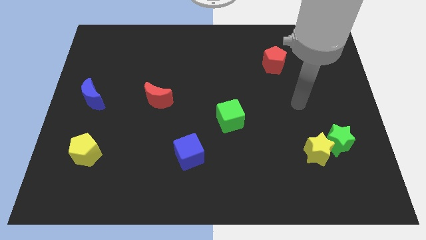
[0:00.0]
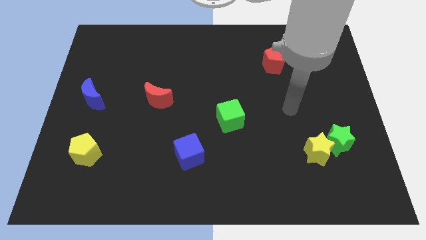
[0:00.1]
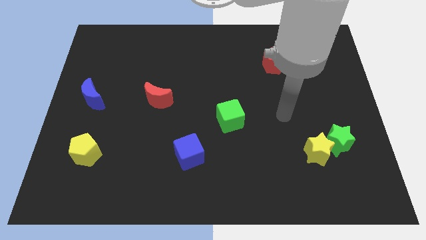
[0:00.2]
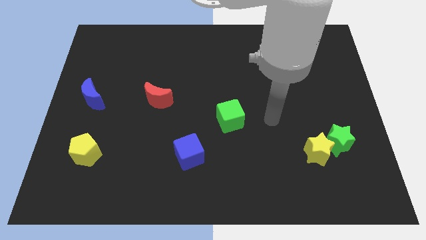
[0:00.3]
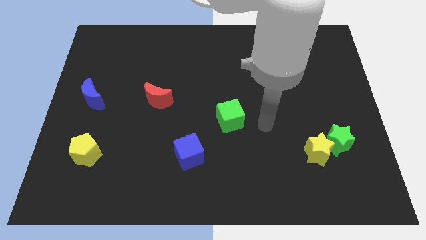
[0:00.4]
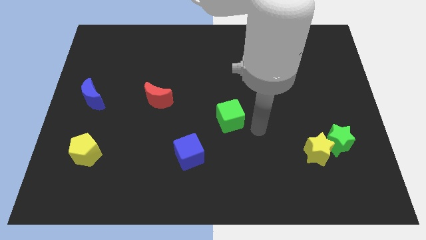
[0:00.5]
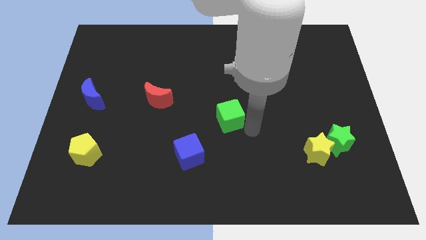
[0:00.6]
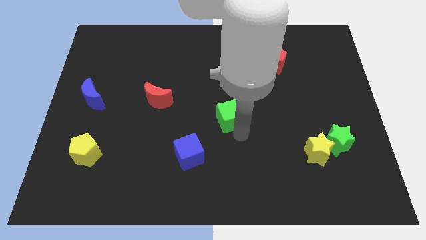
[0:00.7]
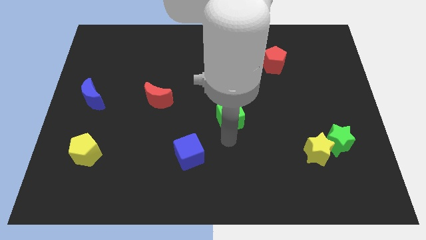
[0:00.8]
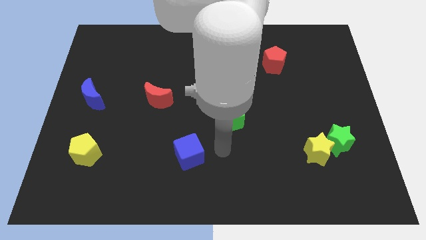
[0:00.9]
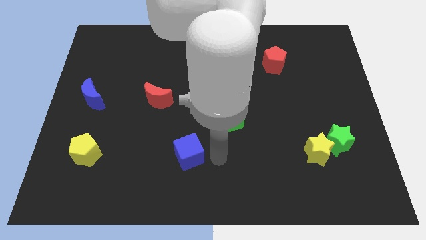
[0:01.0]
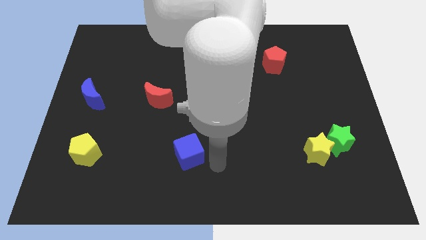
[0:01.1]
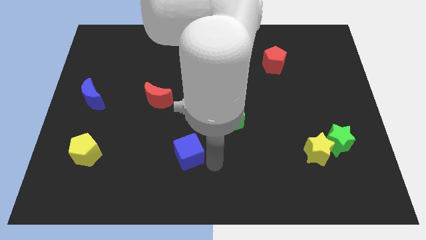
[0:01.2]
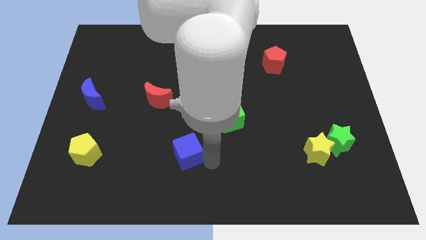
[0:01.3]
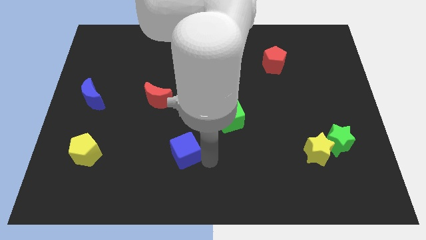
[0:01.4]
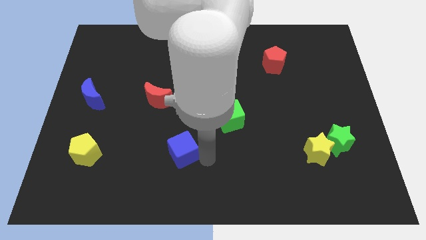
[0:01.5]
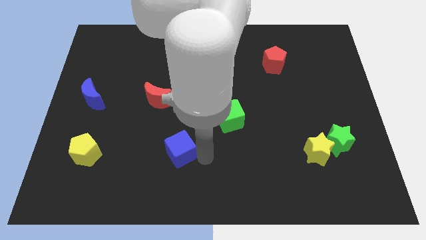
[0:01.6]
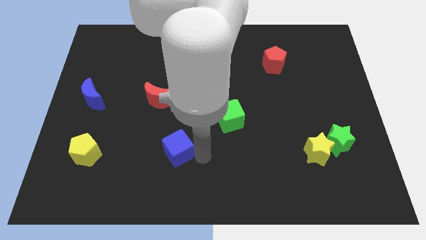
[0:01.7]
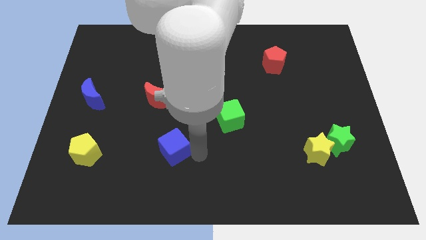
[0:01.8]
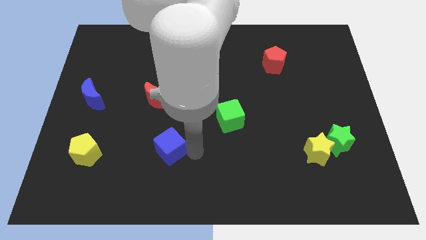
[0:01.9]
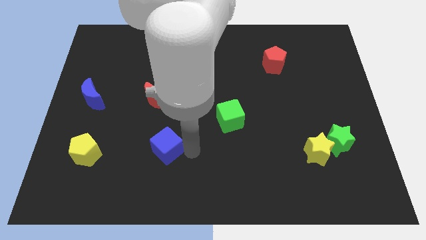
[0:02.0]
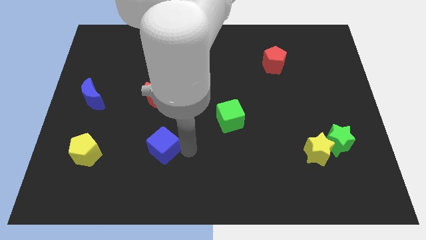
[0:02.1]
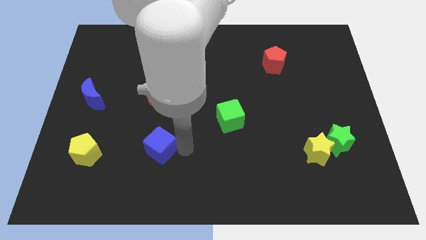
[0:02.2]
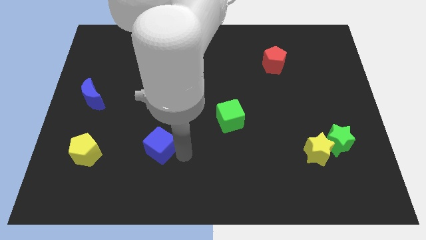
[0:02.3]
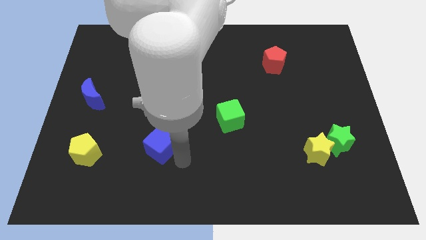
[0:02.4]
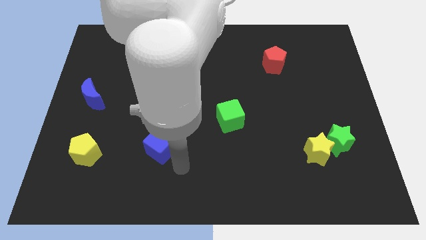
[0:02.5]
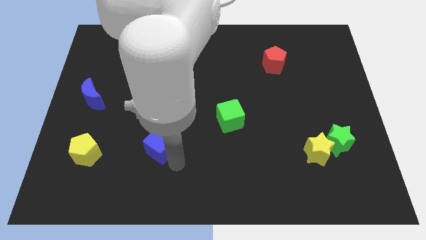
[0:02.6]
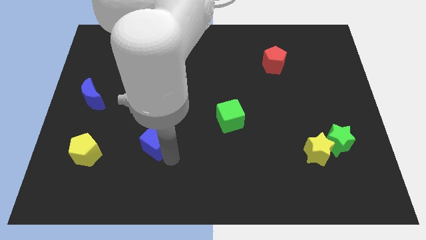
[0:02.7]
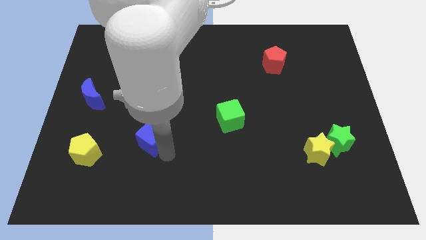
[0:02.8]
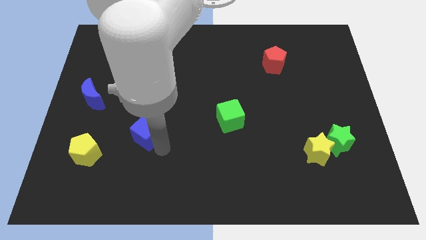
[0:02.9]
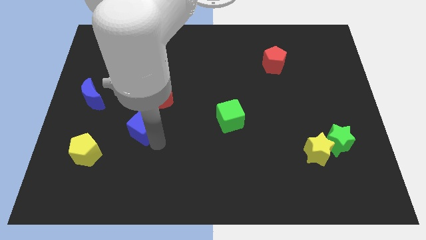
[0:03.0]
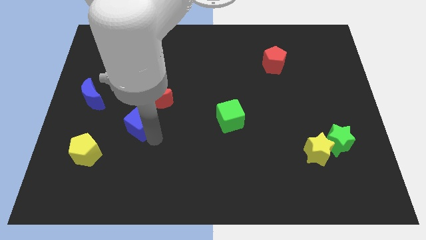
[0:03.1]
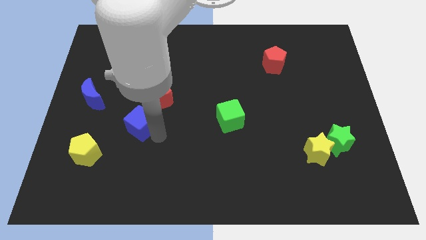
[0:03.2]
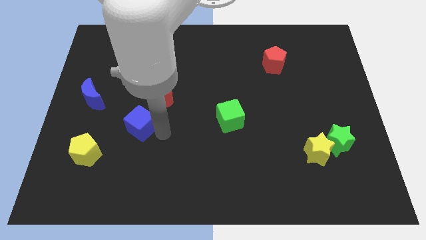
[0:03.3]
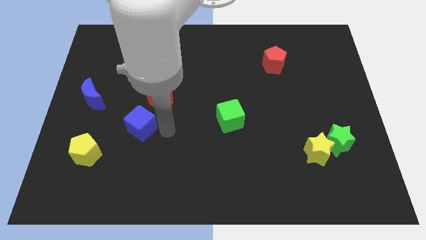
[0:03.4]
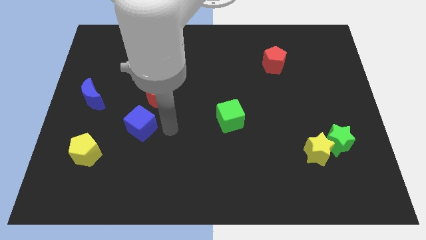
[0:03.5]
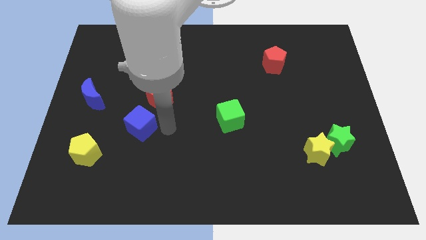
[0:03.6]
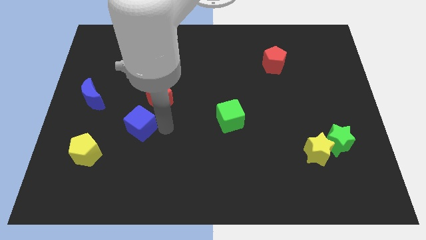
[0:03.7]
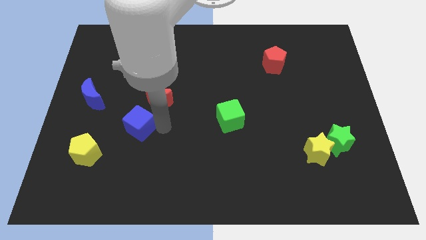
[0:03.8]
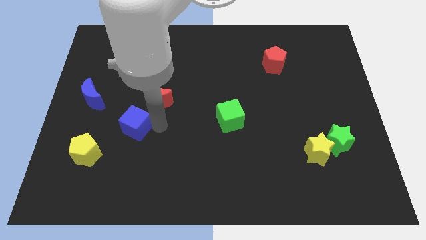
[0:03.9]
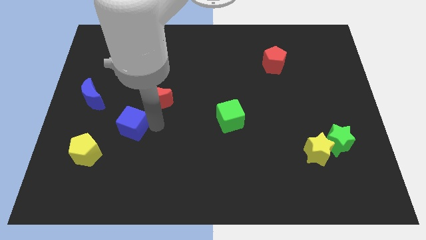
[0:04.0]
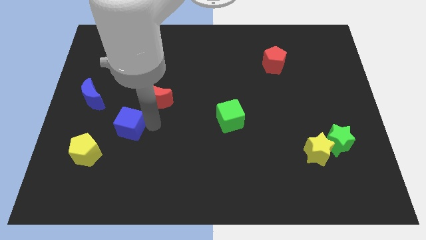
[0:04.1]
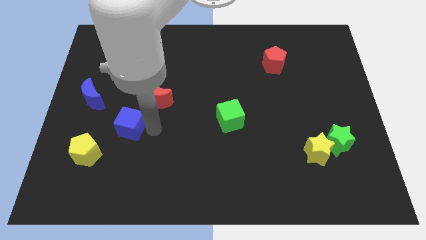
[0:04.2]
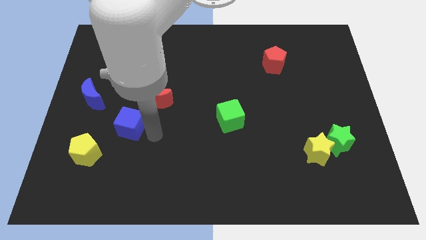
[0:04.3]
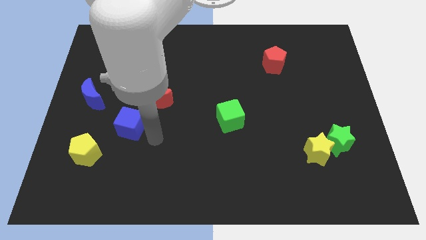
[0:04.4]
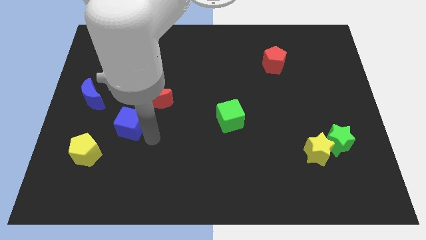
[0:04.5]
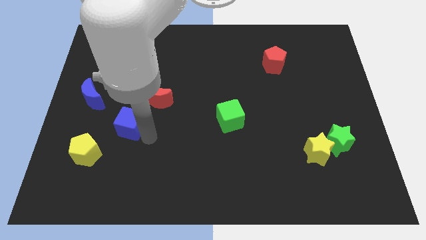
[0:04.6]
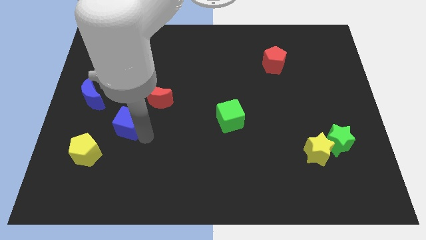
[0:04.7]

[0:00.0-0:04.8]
put the blue cube diagonally down and to the right of the blue moon

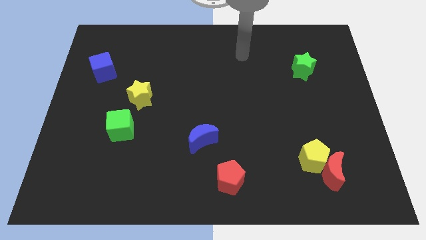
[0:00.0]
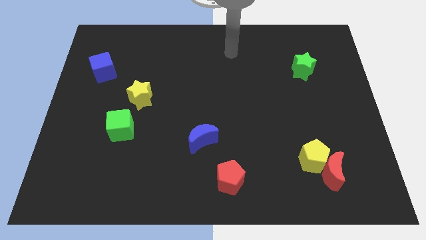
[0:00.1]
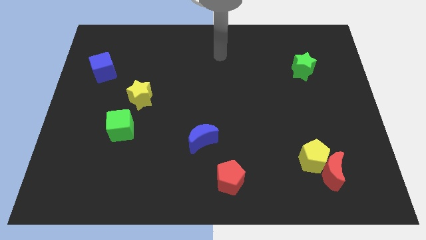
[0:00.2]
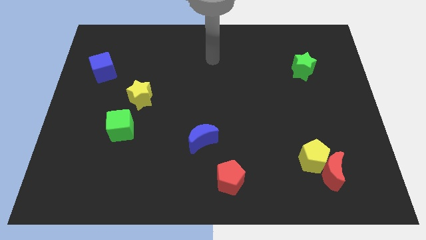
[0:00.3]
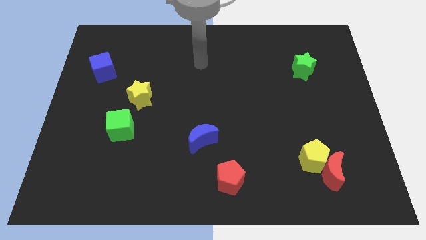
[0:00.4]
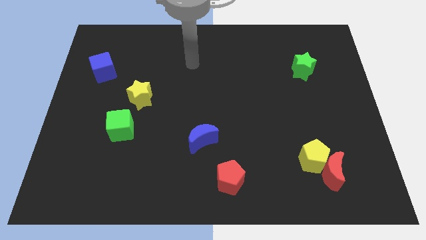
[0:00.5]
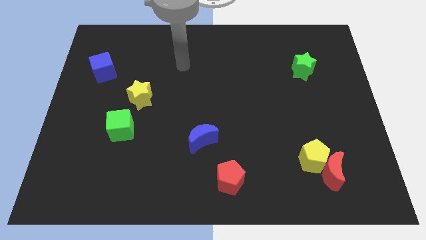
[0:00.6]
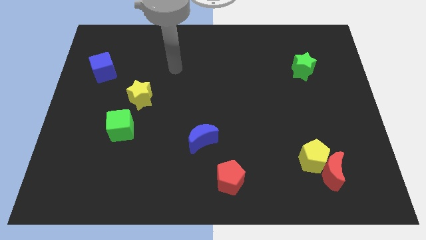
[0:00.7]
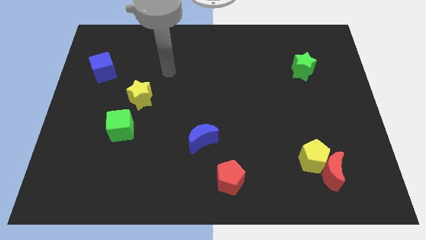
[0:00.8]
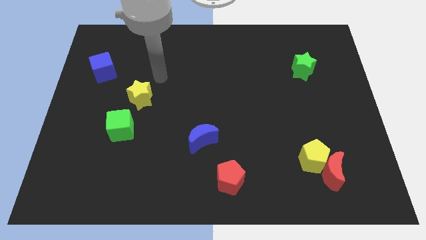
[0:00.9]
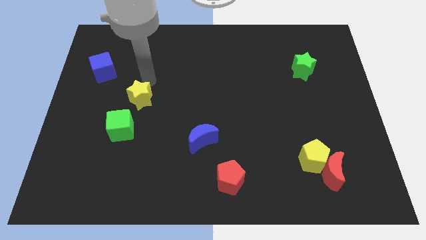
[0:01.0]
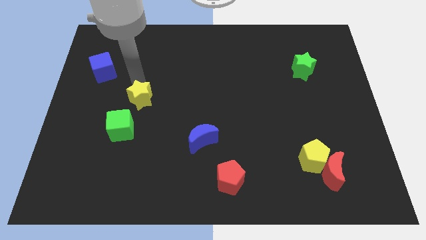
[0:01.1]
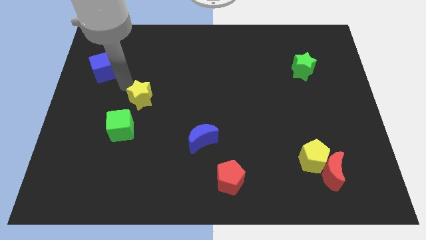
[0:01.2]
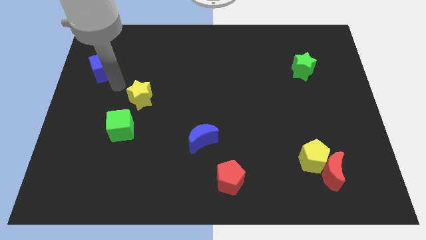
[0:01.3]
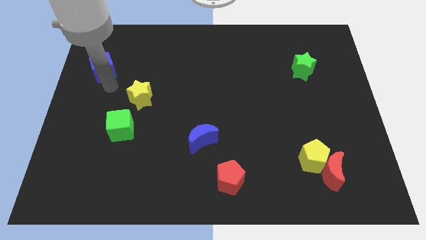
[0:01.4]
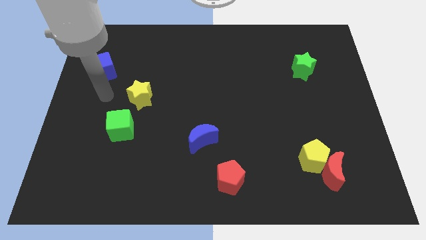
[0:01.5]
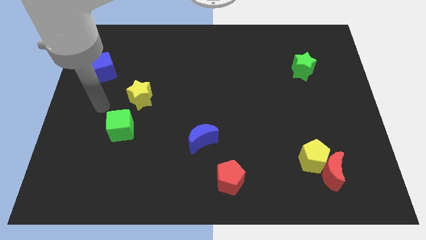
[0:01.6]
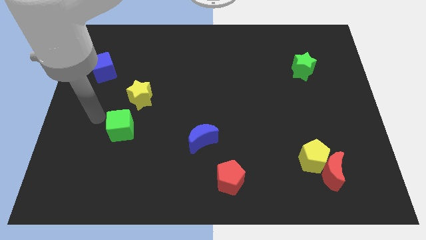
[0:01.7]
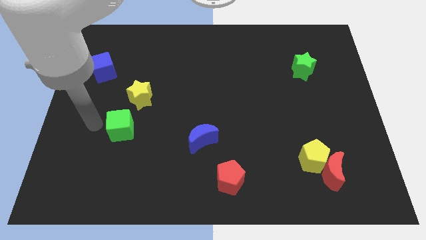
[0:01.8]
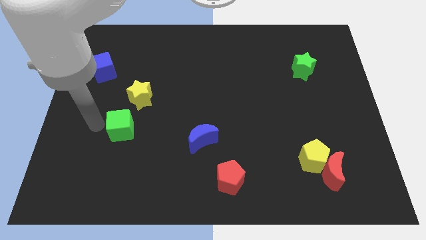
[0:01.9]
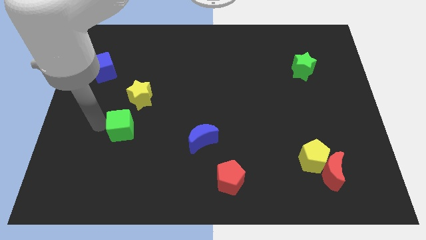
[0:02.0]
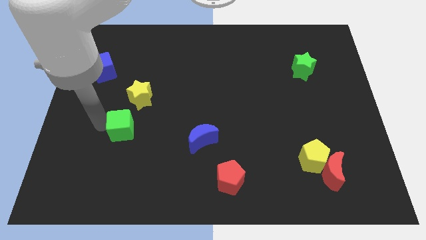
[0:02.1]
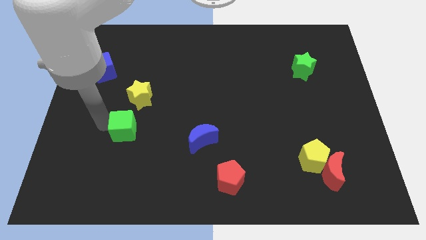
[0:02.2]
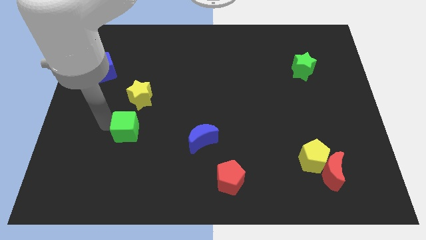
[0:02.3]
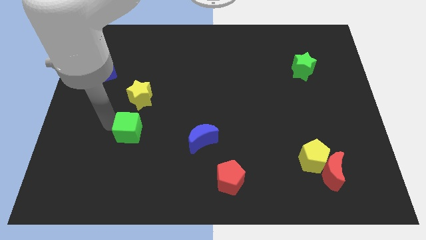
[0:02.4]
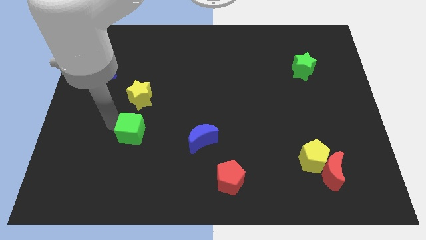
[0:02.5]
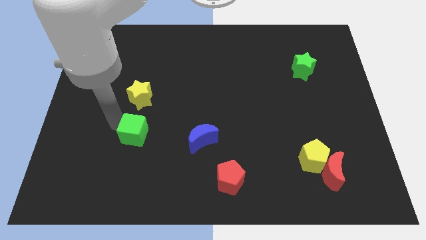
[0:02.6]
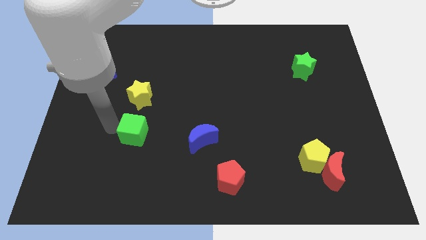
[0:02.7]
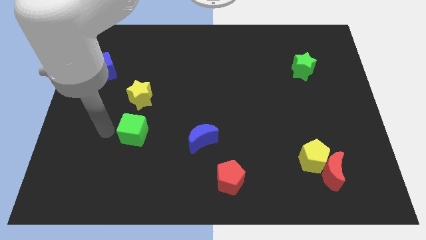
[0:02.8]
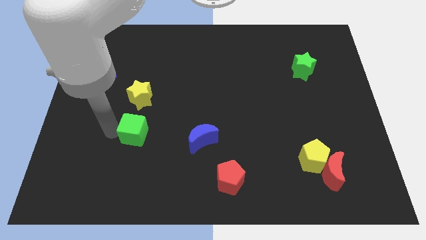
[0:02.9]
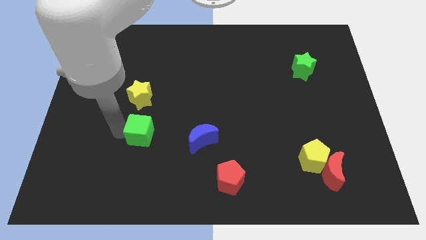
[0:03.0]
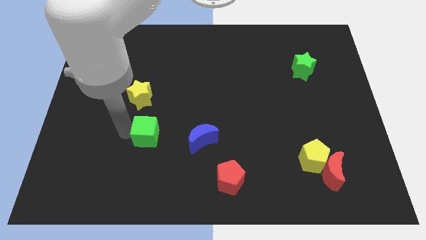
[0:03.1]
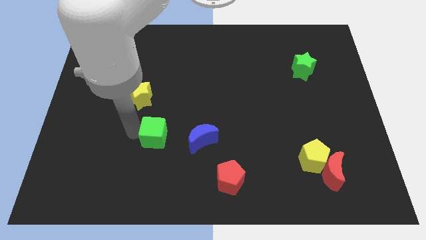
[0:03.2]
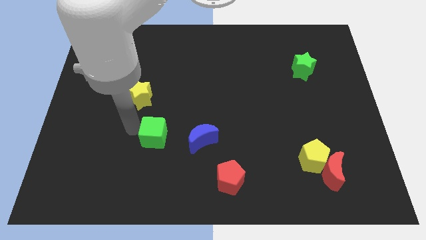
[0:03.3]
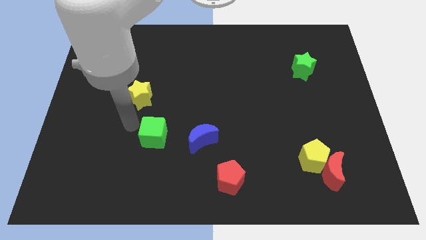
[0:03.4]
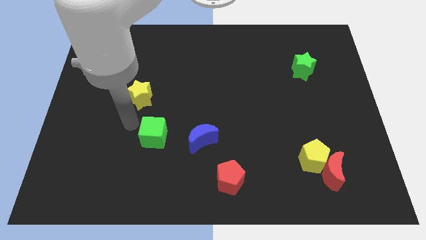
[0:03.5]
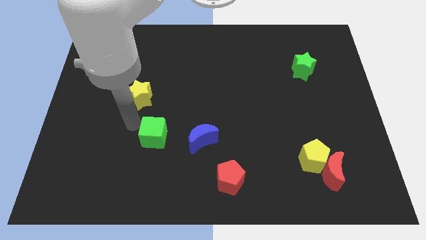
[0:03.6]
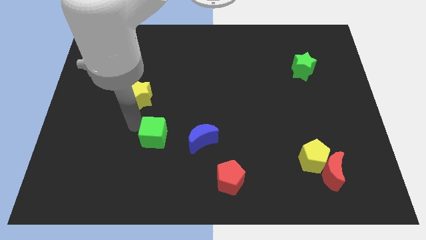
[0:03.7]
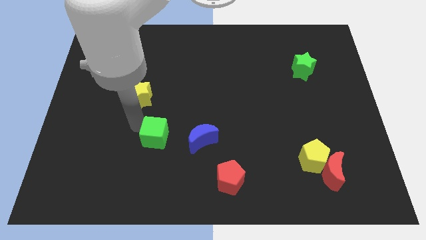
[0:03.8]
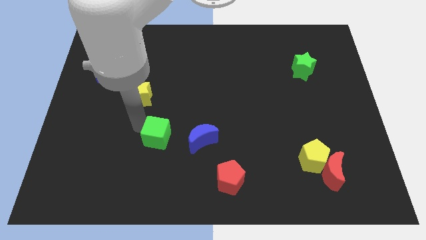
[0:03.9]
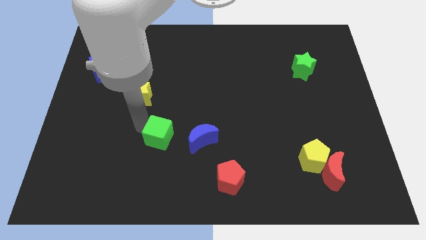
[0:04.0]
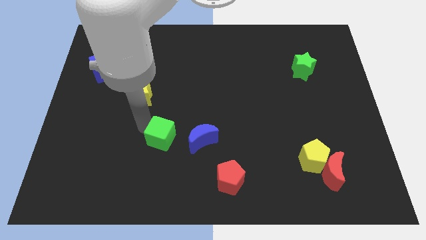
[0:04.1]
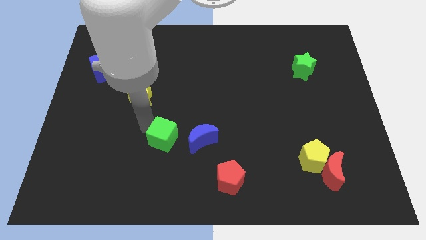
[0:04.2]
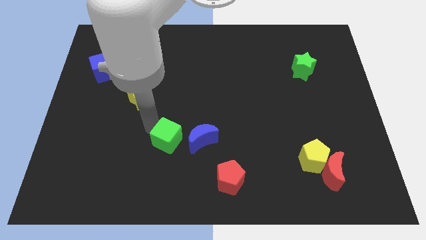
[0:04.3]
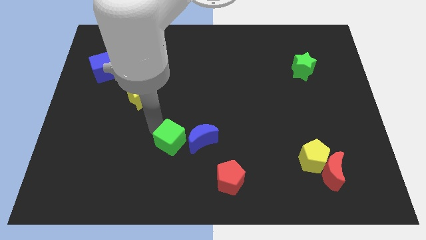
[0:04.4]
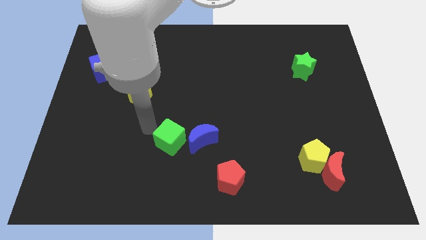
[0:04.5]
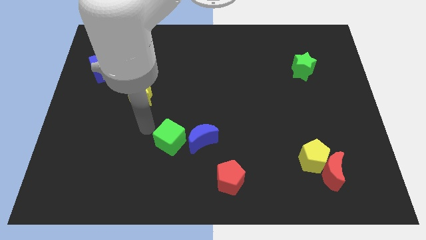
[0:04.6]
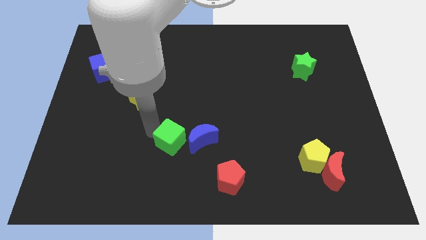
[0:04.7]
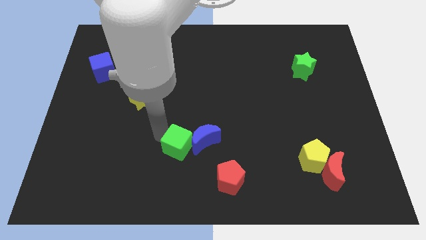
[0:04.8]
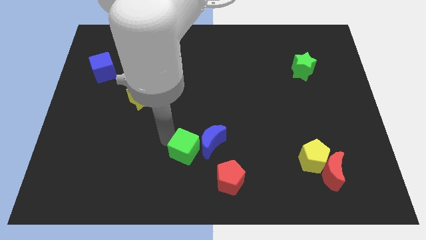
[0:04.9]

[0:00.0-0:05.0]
slide the green cube diagonally up and to the left of the red pentagon
